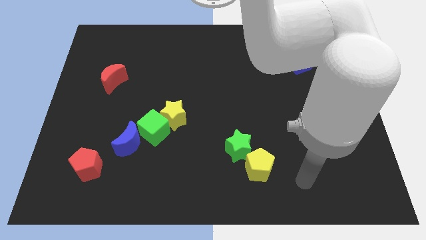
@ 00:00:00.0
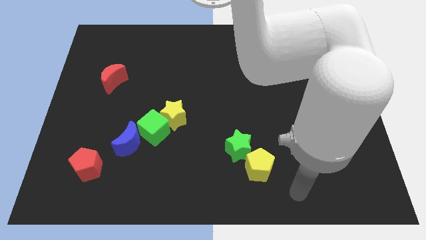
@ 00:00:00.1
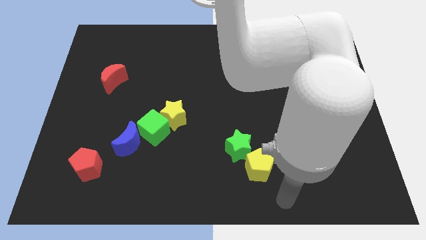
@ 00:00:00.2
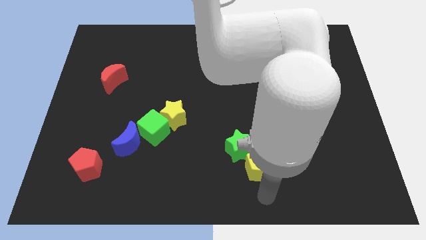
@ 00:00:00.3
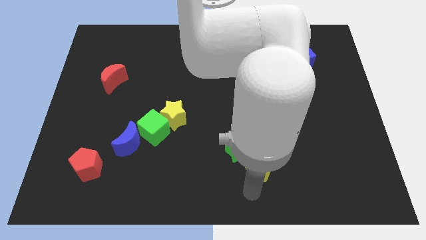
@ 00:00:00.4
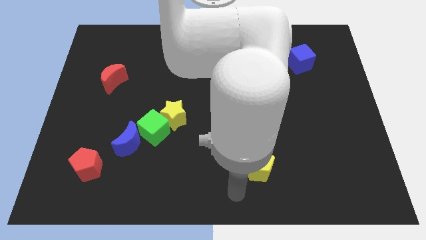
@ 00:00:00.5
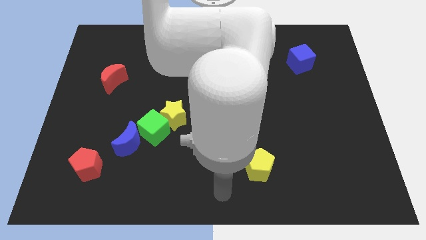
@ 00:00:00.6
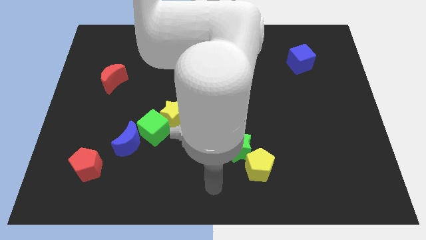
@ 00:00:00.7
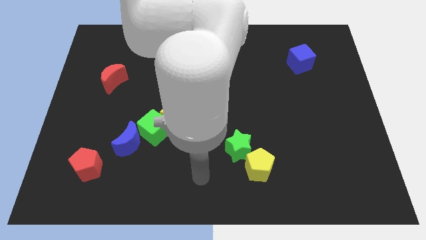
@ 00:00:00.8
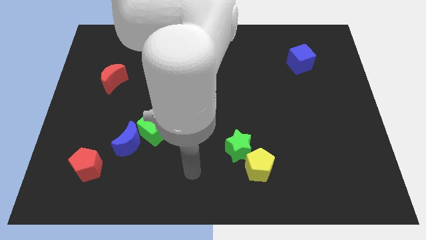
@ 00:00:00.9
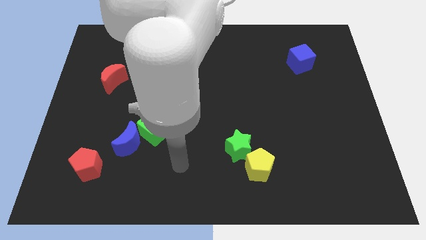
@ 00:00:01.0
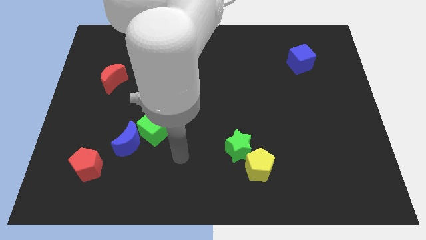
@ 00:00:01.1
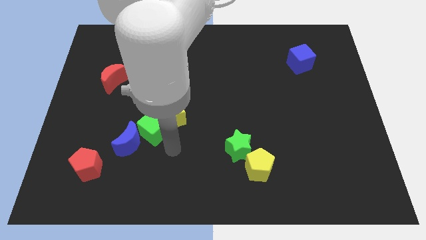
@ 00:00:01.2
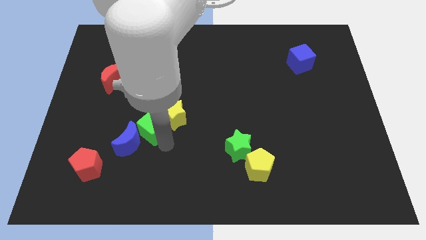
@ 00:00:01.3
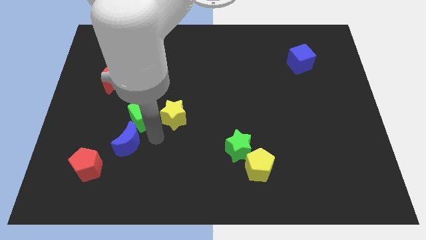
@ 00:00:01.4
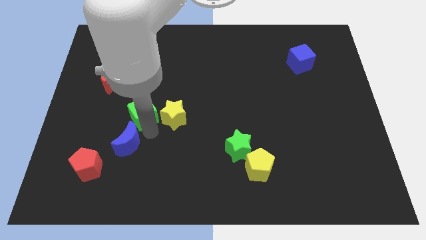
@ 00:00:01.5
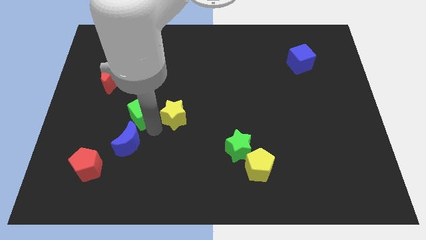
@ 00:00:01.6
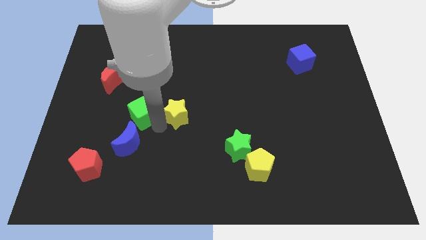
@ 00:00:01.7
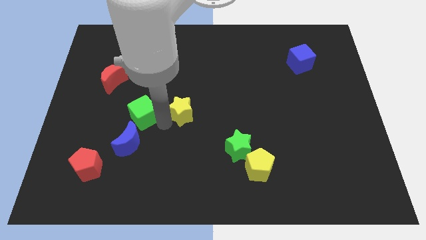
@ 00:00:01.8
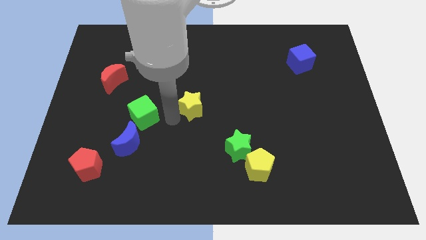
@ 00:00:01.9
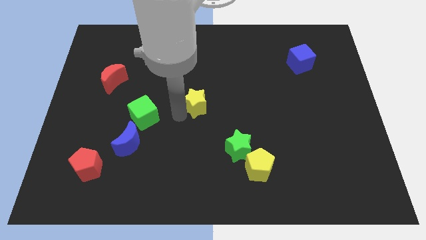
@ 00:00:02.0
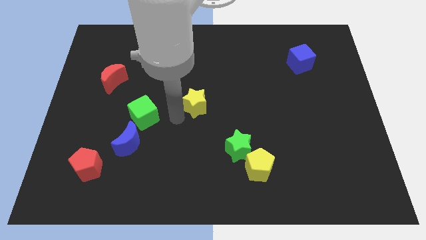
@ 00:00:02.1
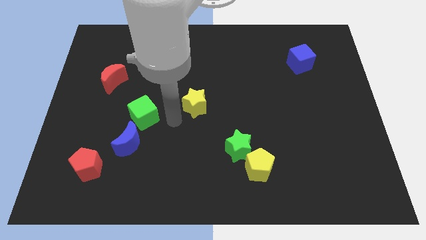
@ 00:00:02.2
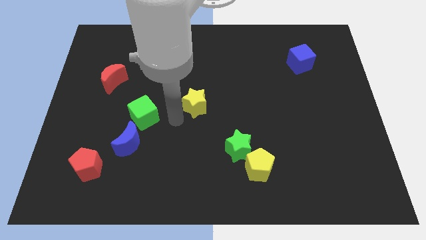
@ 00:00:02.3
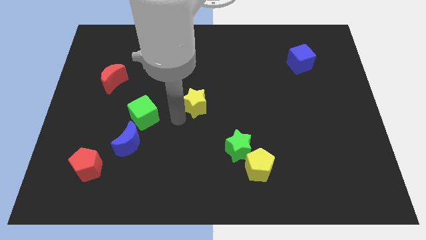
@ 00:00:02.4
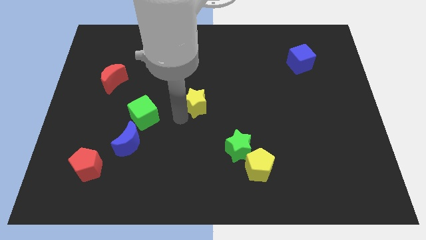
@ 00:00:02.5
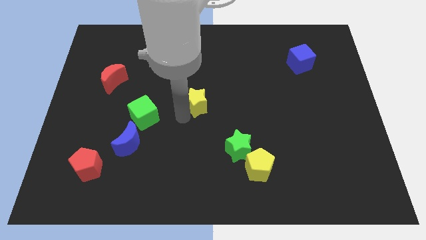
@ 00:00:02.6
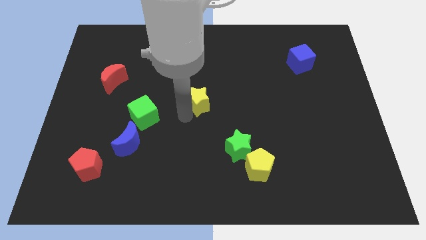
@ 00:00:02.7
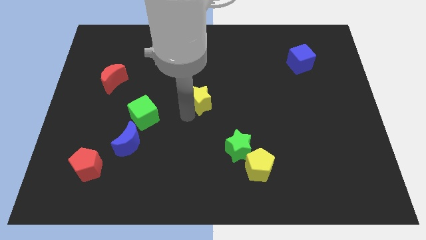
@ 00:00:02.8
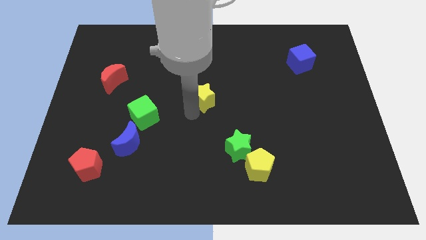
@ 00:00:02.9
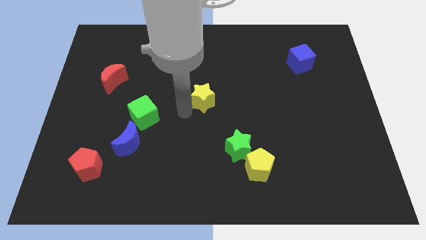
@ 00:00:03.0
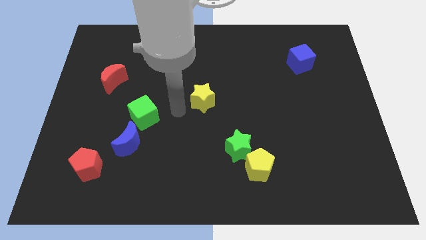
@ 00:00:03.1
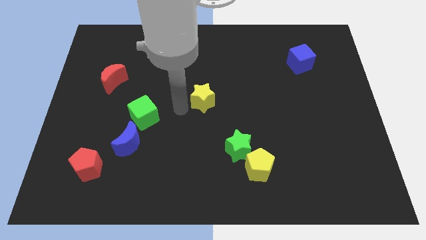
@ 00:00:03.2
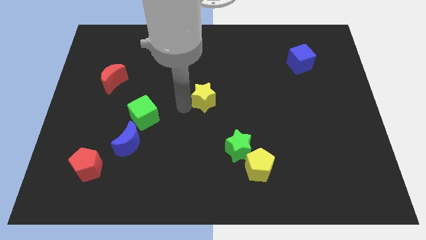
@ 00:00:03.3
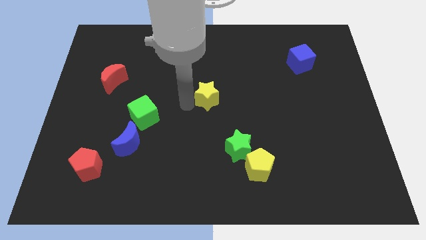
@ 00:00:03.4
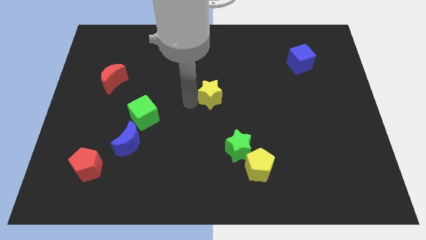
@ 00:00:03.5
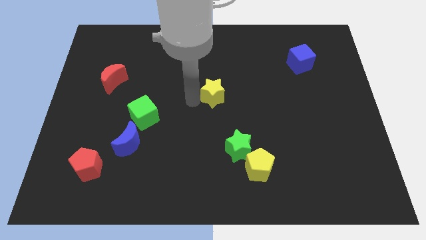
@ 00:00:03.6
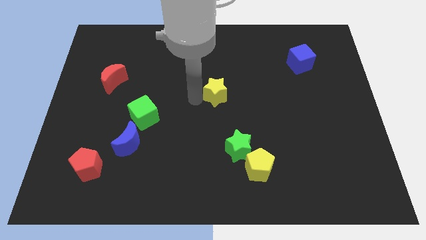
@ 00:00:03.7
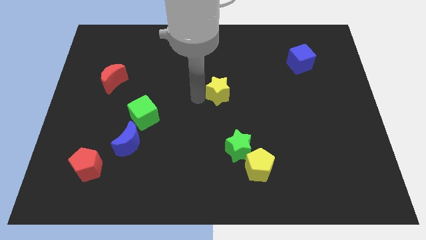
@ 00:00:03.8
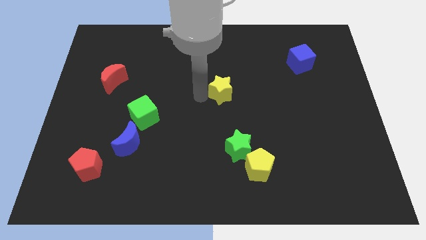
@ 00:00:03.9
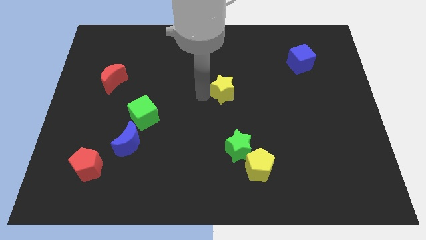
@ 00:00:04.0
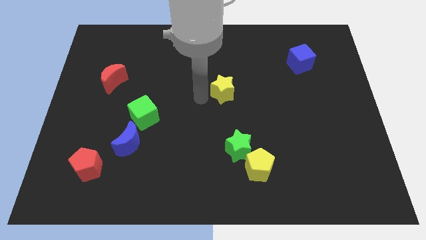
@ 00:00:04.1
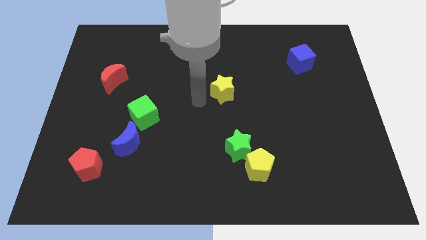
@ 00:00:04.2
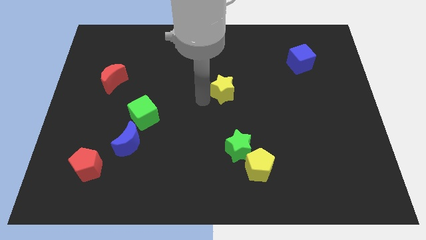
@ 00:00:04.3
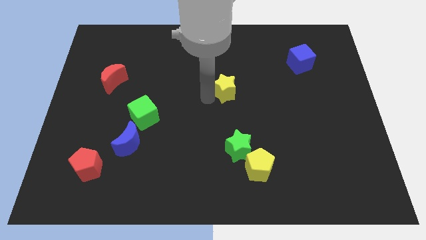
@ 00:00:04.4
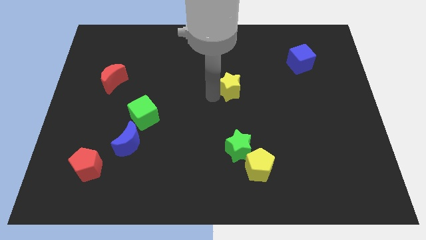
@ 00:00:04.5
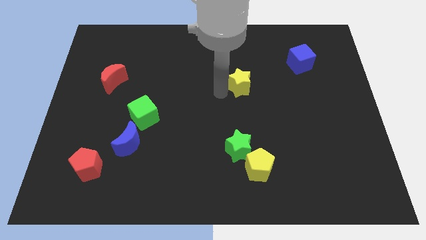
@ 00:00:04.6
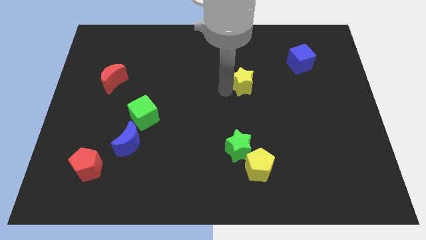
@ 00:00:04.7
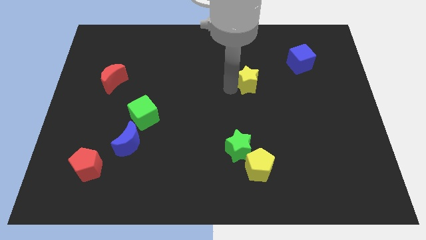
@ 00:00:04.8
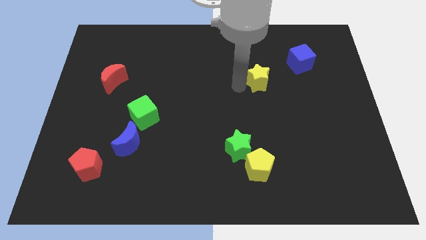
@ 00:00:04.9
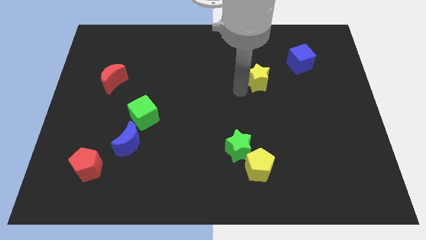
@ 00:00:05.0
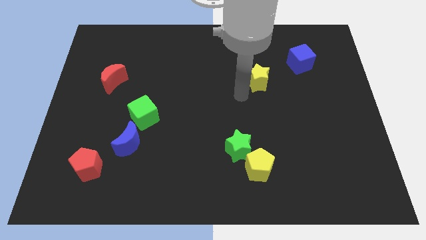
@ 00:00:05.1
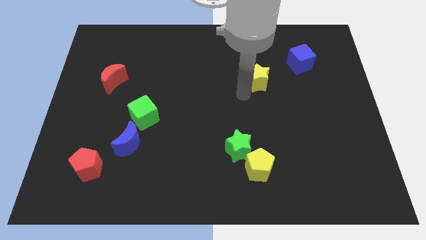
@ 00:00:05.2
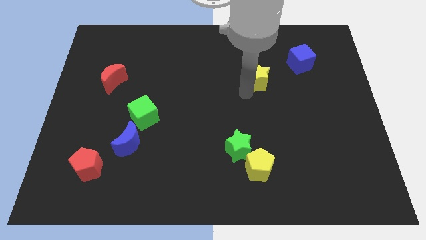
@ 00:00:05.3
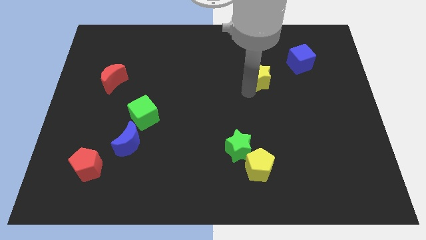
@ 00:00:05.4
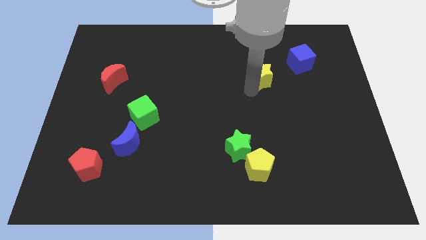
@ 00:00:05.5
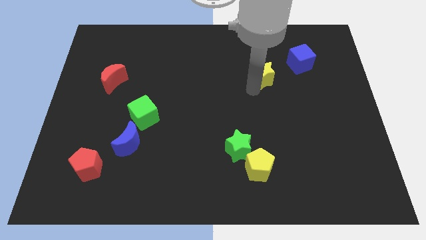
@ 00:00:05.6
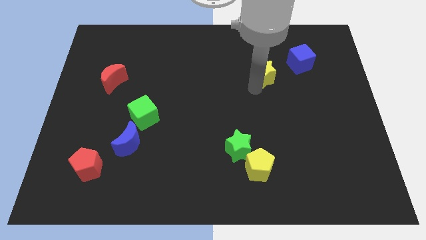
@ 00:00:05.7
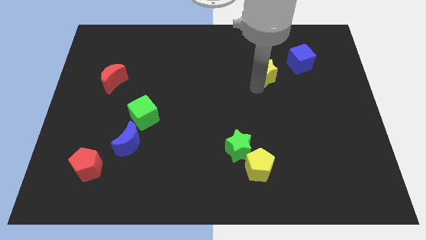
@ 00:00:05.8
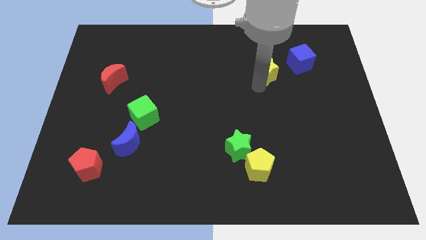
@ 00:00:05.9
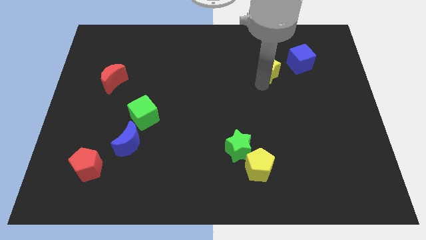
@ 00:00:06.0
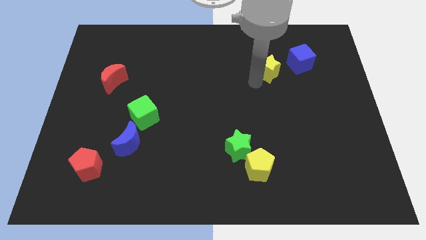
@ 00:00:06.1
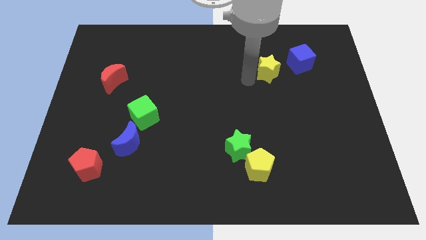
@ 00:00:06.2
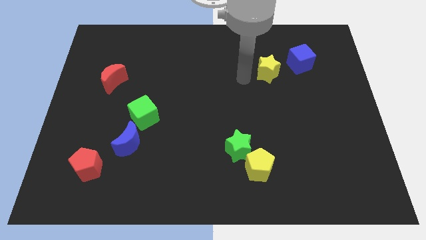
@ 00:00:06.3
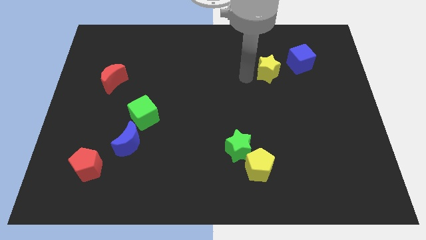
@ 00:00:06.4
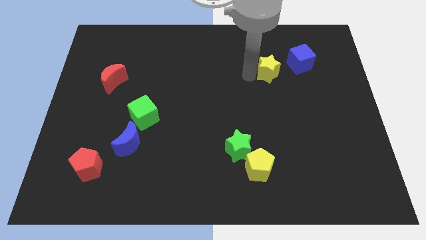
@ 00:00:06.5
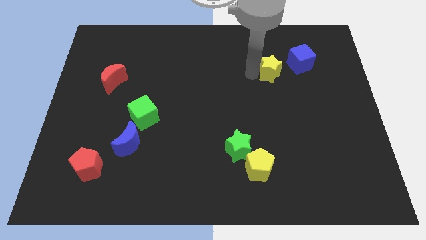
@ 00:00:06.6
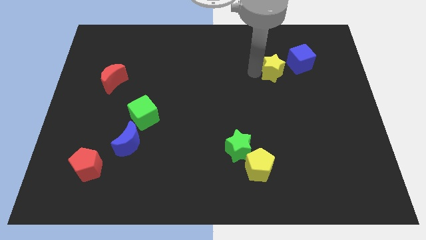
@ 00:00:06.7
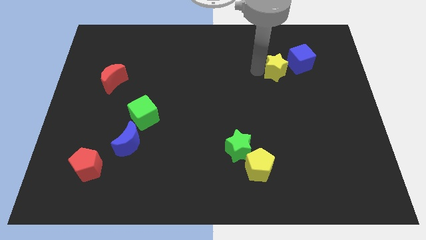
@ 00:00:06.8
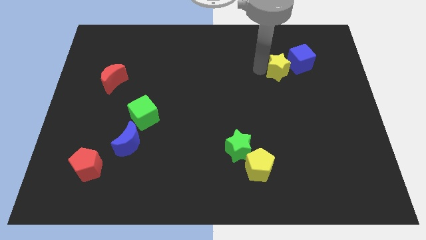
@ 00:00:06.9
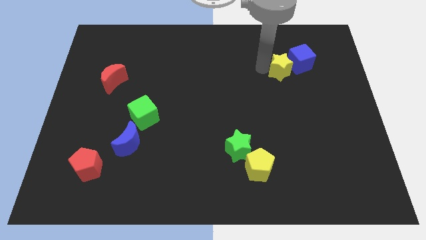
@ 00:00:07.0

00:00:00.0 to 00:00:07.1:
put the yellow star to the blue cube
